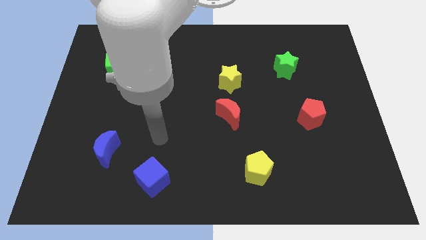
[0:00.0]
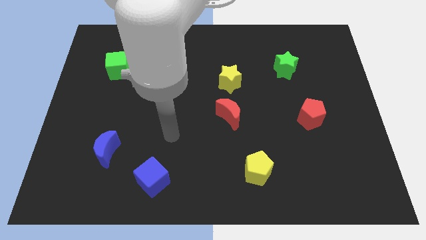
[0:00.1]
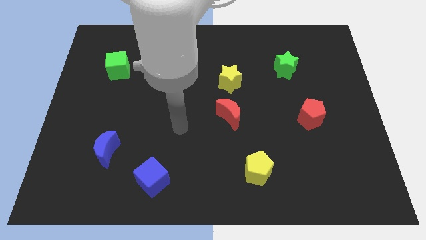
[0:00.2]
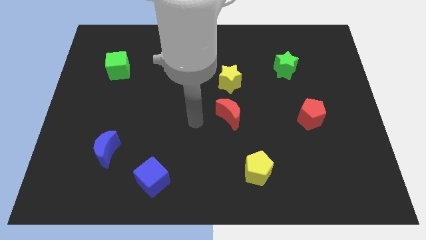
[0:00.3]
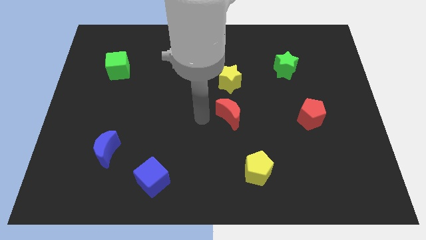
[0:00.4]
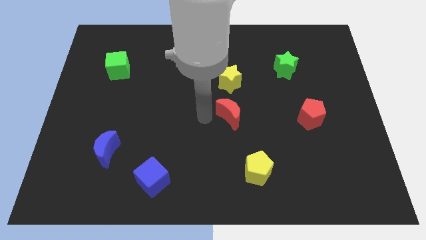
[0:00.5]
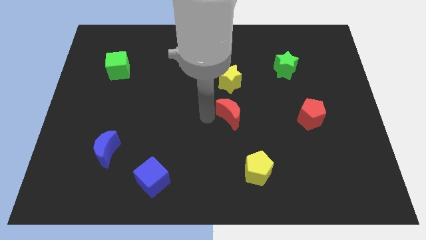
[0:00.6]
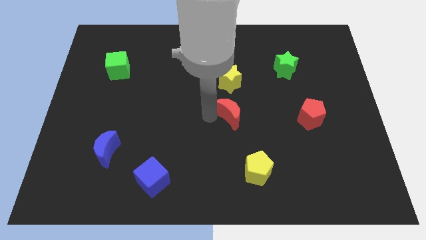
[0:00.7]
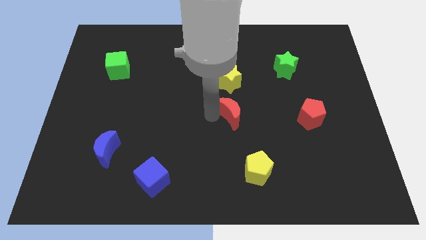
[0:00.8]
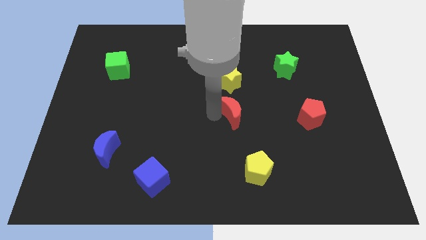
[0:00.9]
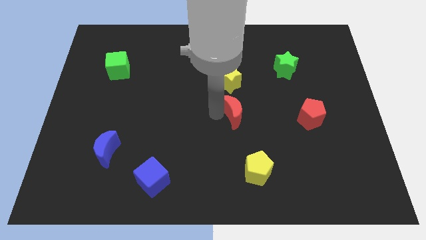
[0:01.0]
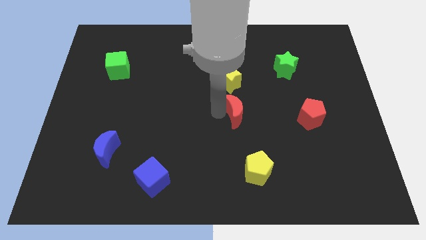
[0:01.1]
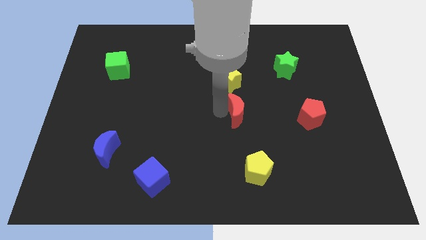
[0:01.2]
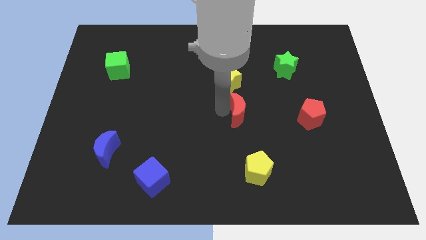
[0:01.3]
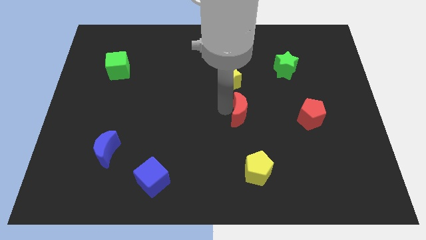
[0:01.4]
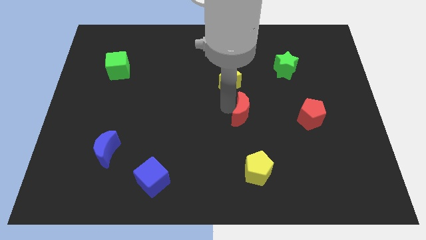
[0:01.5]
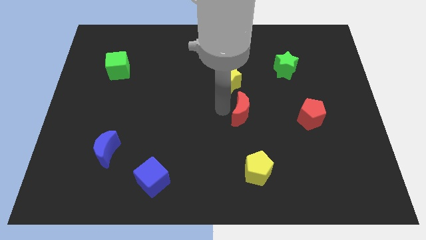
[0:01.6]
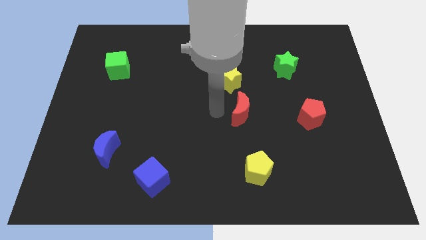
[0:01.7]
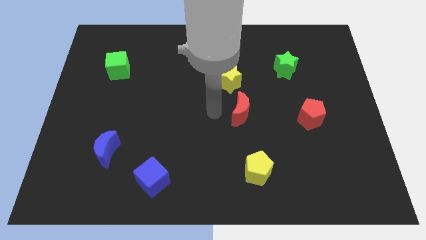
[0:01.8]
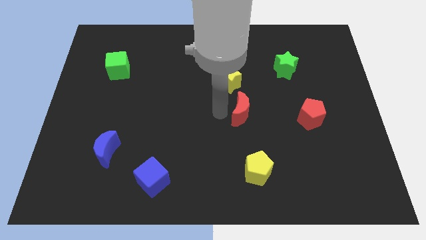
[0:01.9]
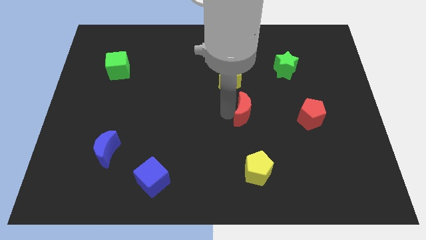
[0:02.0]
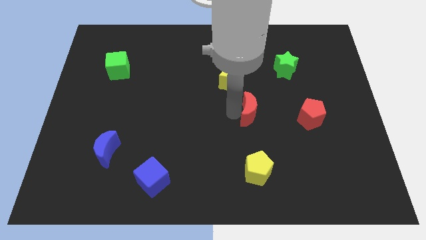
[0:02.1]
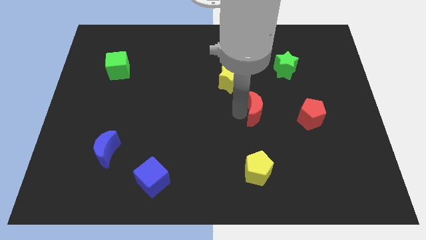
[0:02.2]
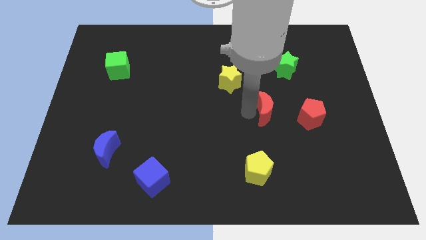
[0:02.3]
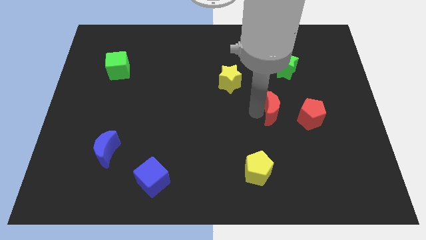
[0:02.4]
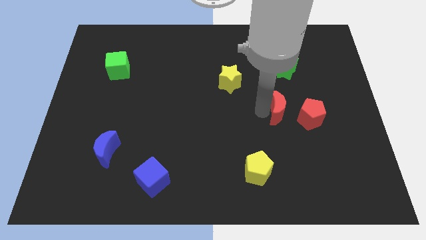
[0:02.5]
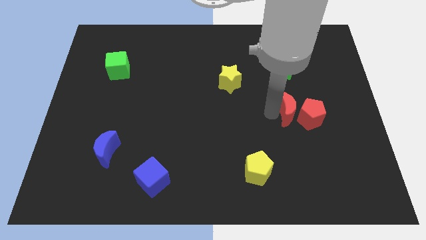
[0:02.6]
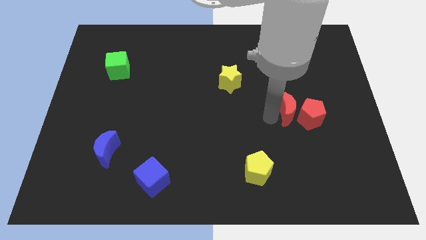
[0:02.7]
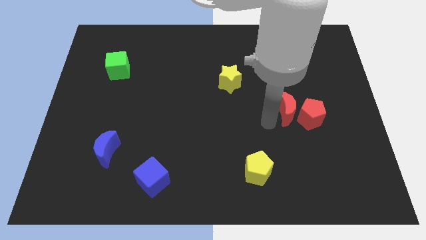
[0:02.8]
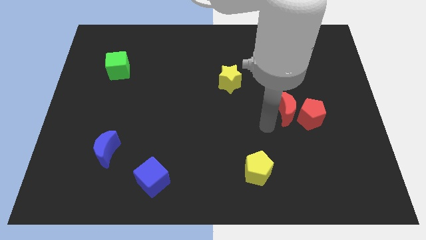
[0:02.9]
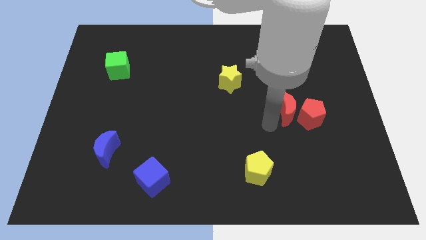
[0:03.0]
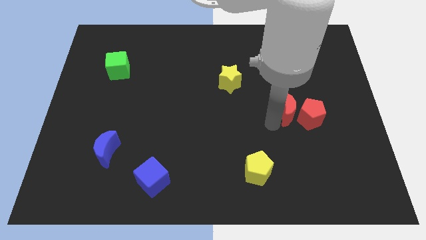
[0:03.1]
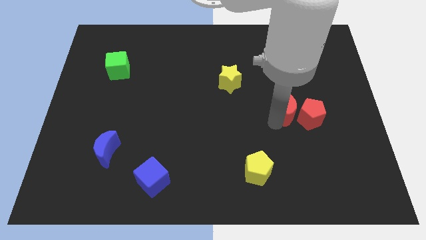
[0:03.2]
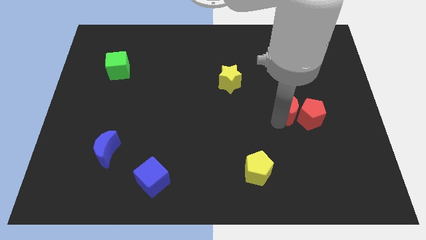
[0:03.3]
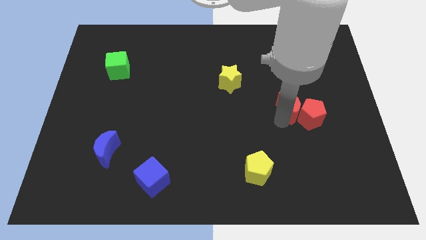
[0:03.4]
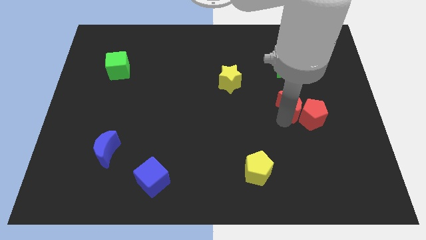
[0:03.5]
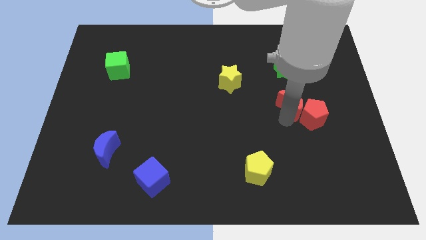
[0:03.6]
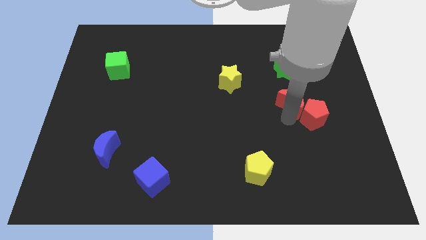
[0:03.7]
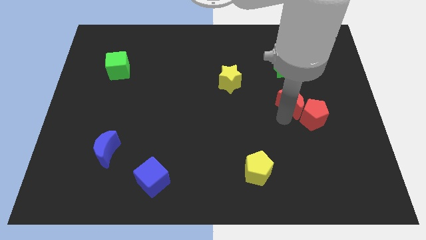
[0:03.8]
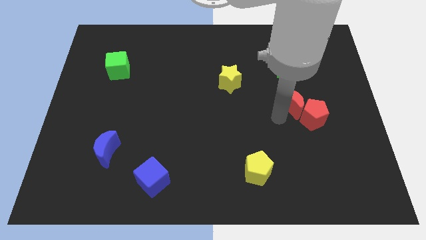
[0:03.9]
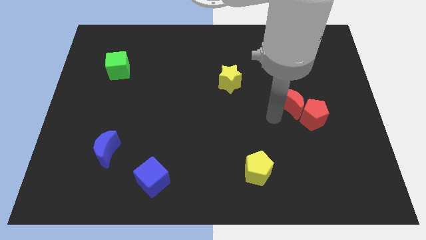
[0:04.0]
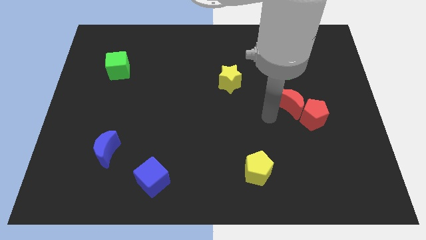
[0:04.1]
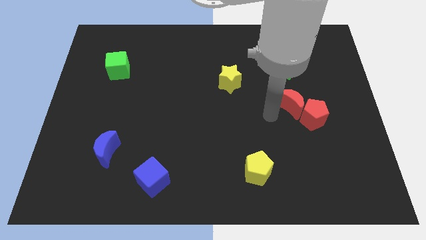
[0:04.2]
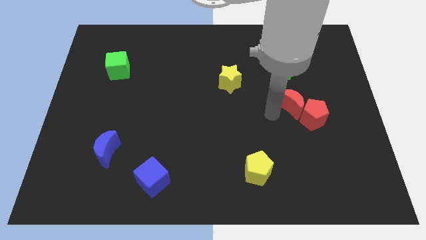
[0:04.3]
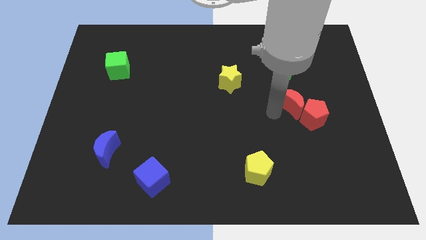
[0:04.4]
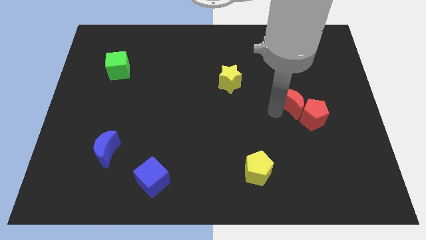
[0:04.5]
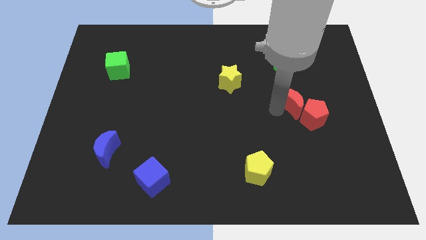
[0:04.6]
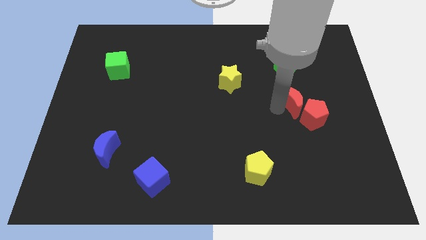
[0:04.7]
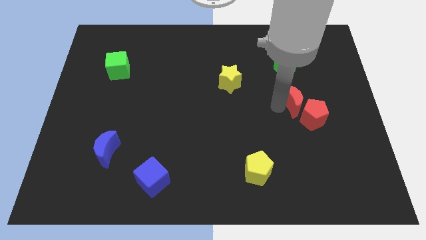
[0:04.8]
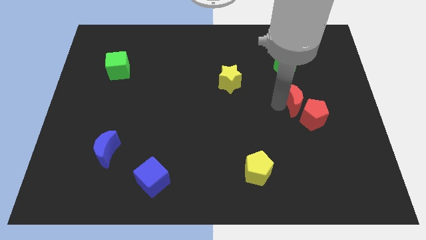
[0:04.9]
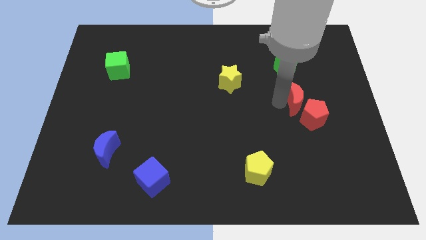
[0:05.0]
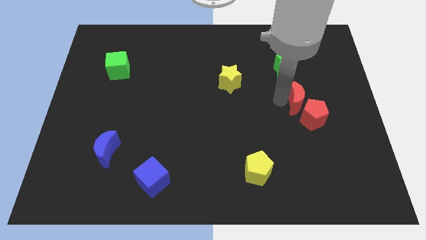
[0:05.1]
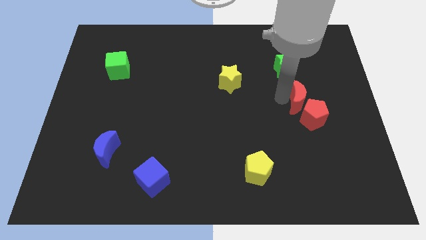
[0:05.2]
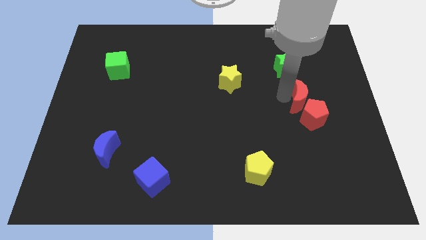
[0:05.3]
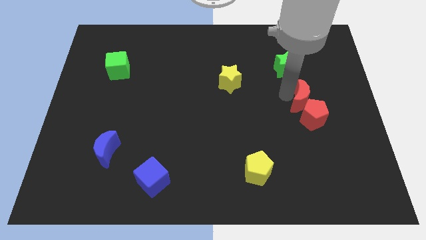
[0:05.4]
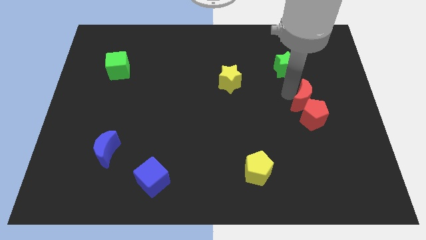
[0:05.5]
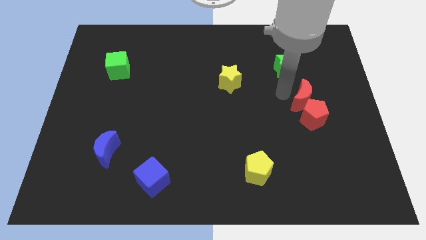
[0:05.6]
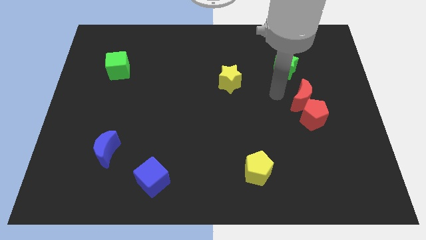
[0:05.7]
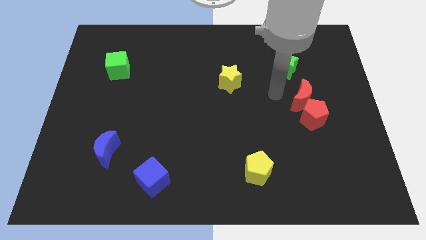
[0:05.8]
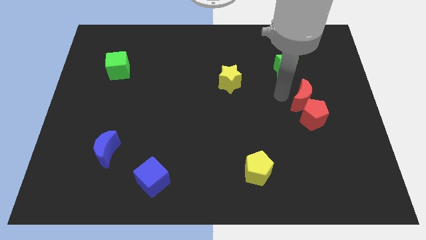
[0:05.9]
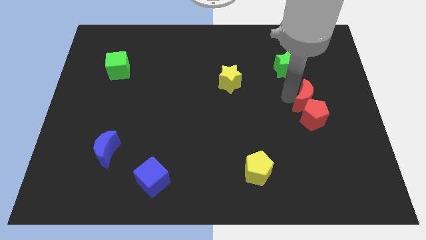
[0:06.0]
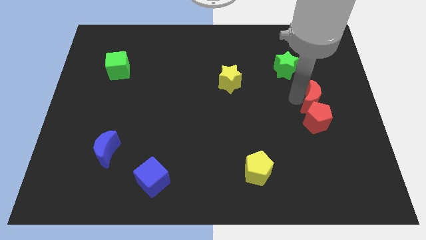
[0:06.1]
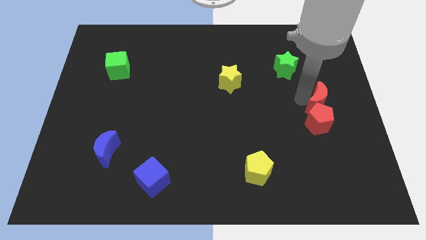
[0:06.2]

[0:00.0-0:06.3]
push the red moon to the right side
